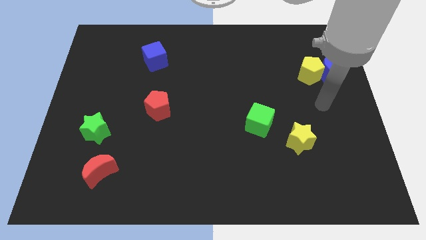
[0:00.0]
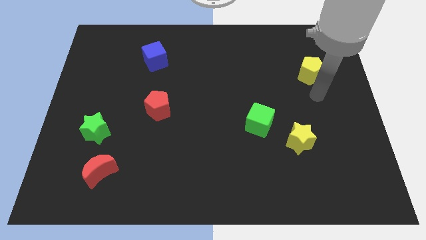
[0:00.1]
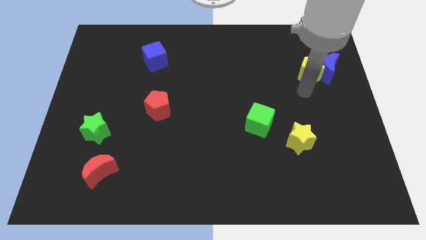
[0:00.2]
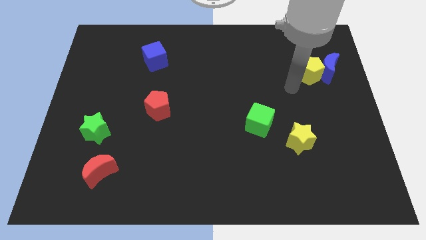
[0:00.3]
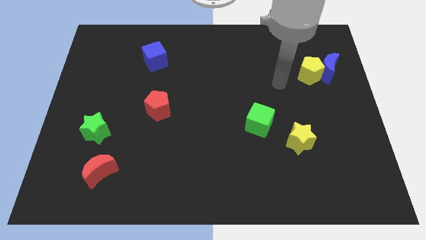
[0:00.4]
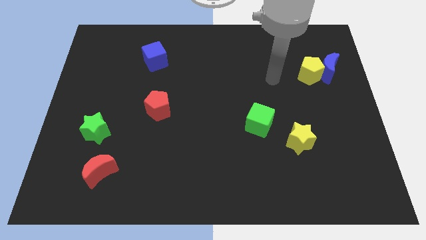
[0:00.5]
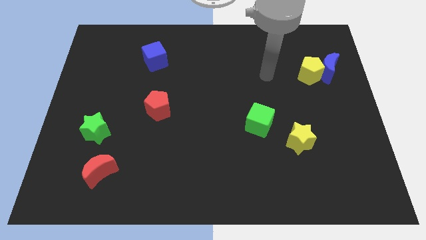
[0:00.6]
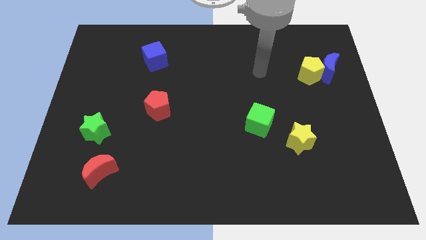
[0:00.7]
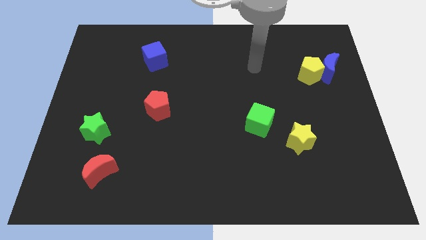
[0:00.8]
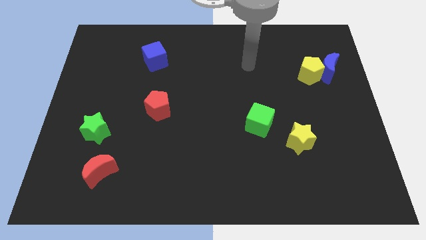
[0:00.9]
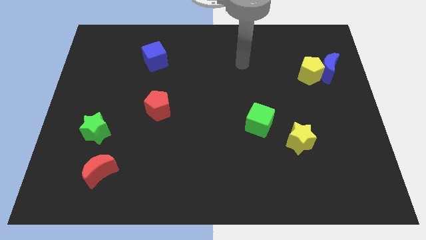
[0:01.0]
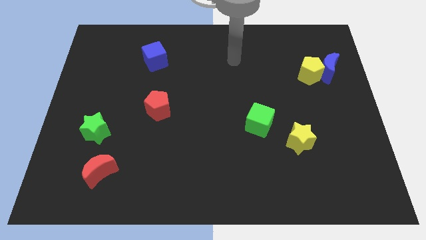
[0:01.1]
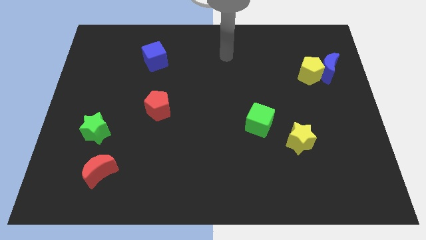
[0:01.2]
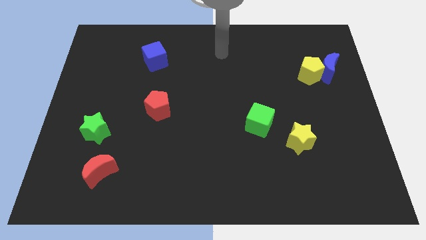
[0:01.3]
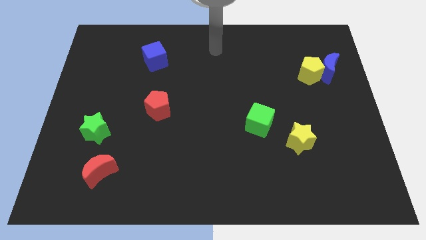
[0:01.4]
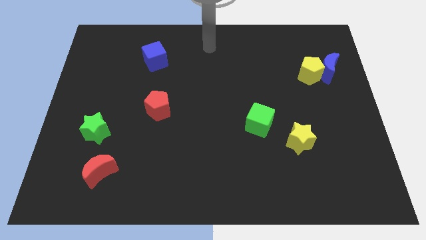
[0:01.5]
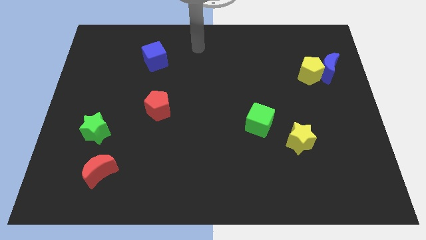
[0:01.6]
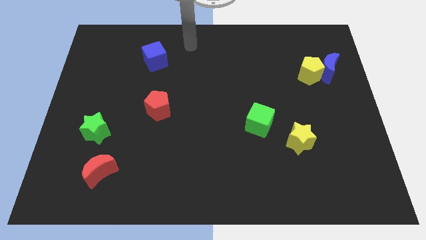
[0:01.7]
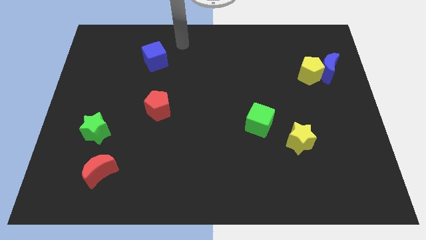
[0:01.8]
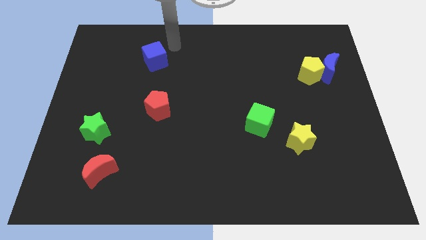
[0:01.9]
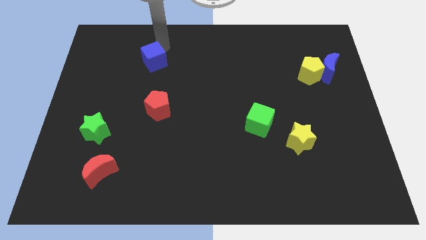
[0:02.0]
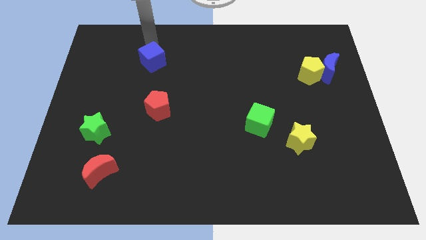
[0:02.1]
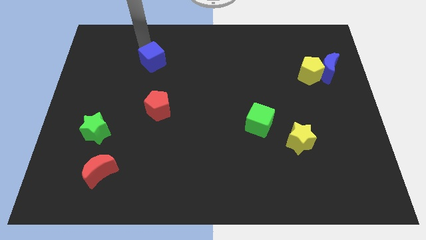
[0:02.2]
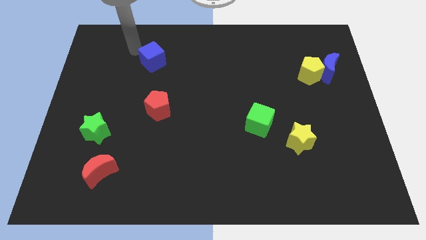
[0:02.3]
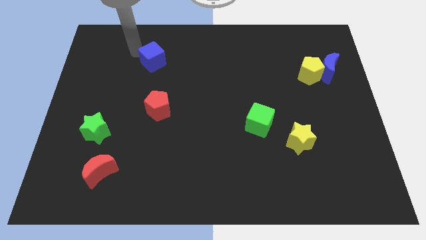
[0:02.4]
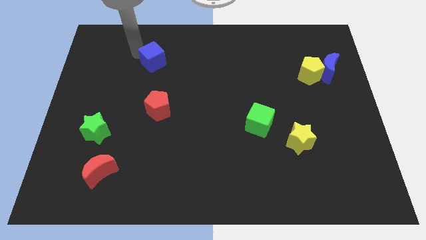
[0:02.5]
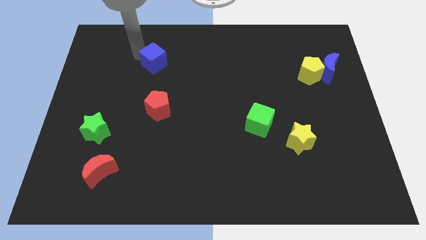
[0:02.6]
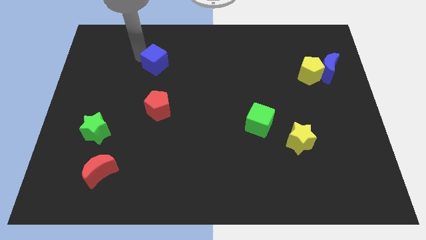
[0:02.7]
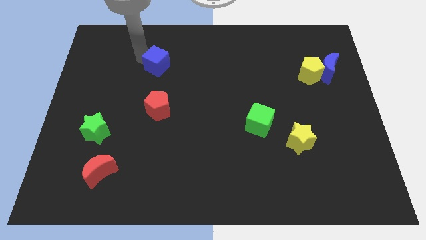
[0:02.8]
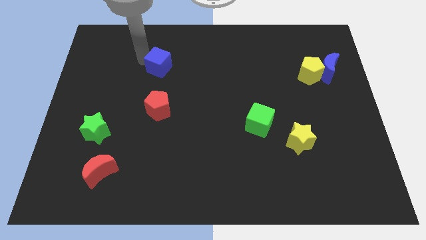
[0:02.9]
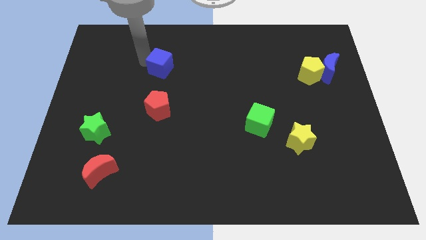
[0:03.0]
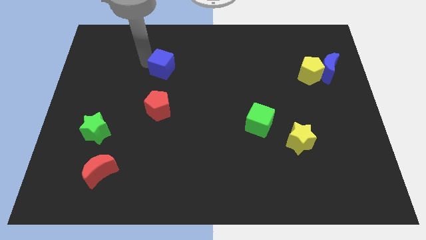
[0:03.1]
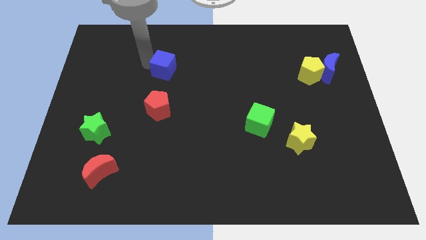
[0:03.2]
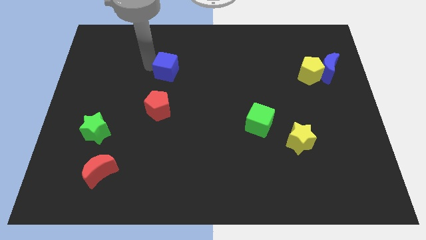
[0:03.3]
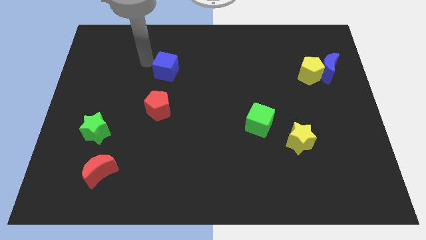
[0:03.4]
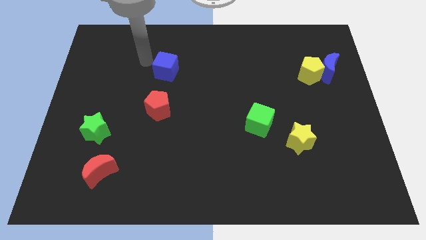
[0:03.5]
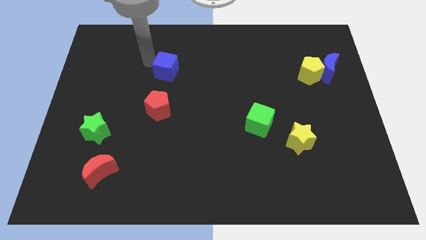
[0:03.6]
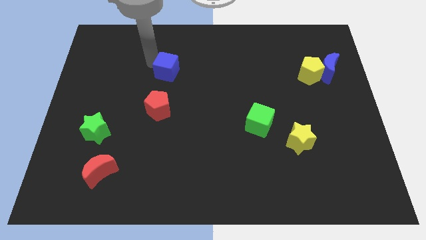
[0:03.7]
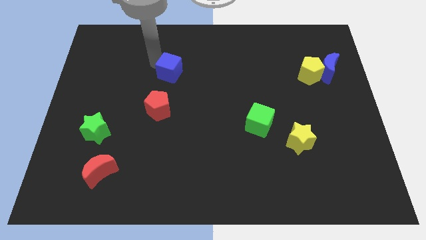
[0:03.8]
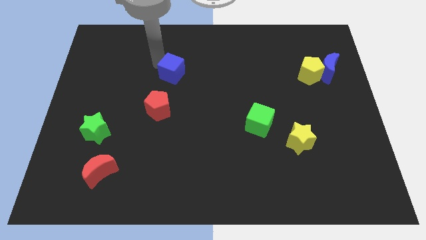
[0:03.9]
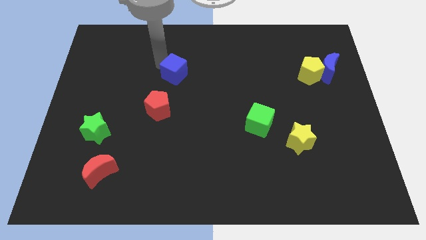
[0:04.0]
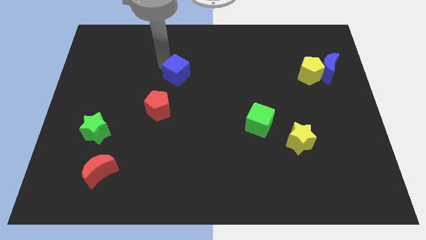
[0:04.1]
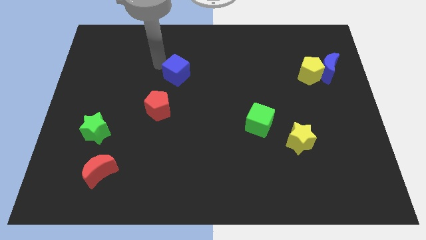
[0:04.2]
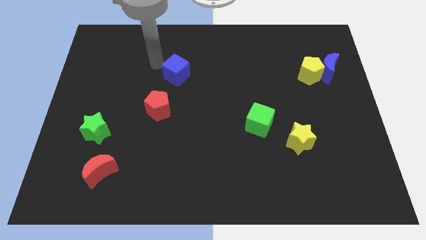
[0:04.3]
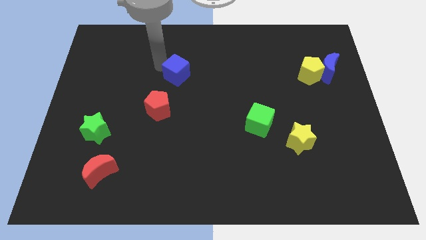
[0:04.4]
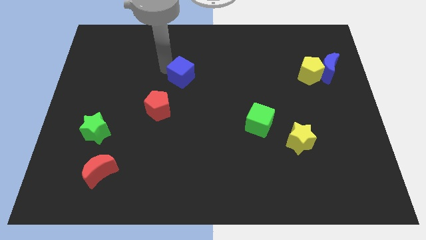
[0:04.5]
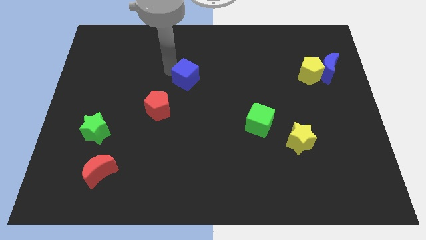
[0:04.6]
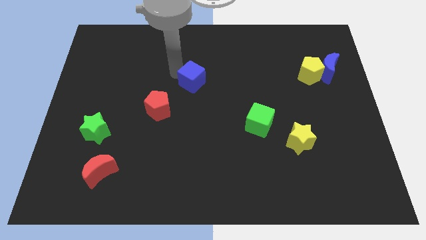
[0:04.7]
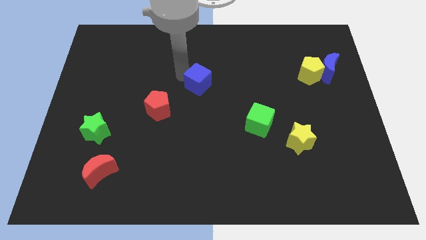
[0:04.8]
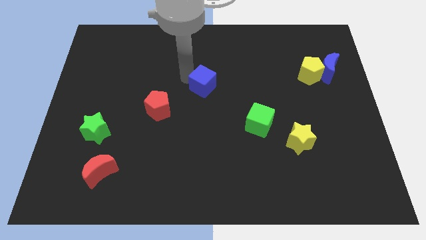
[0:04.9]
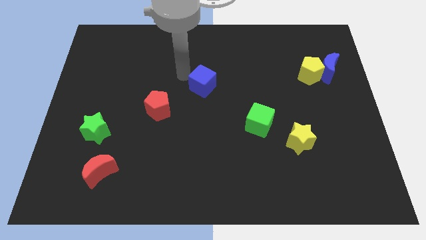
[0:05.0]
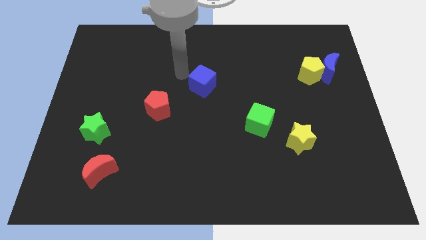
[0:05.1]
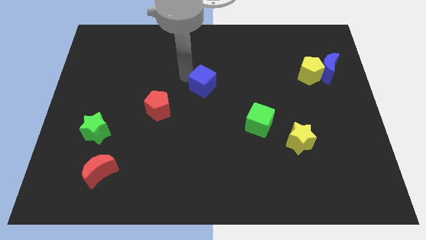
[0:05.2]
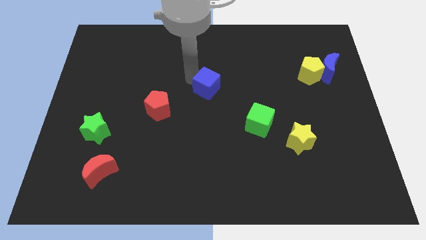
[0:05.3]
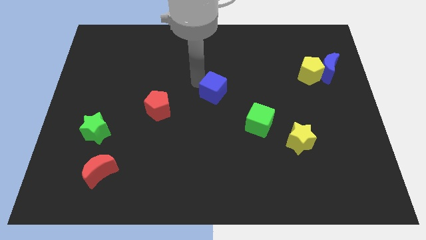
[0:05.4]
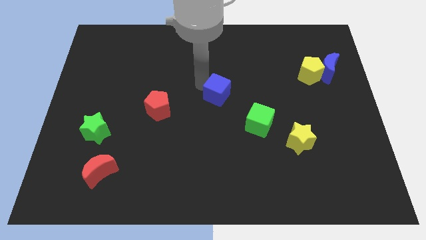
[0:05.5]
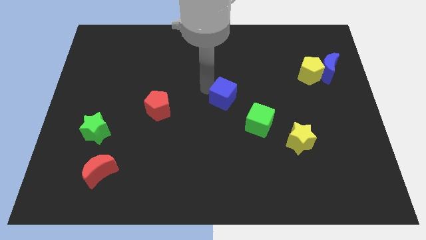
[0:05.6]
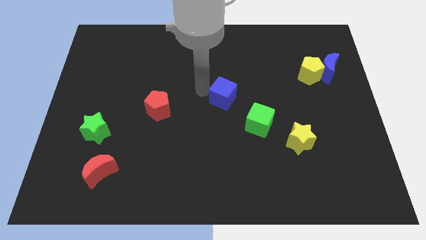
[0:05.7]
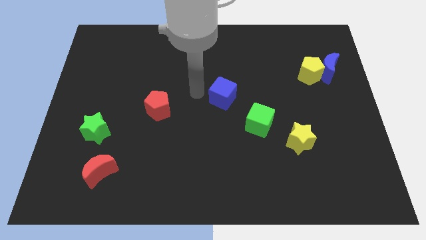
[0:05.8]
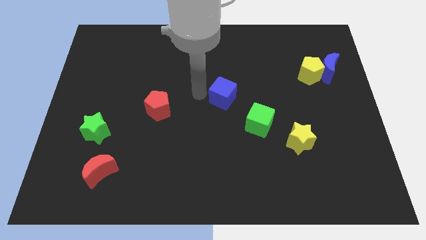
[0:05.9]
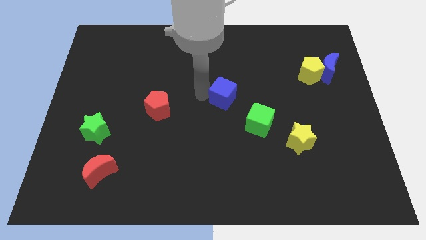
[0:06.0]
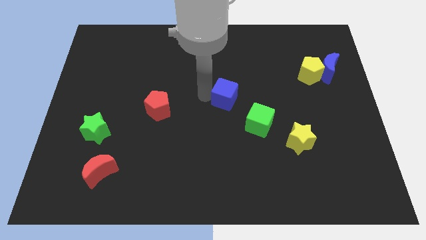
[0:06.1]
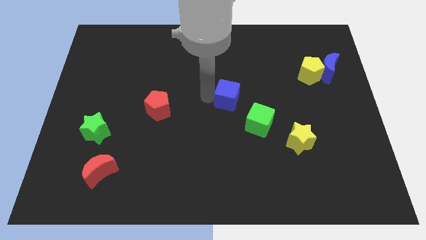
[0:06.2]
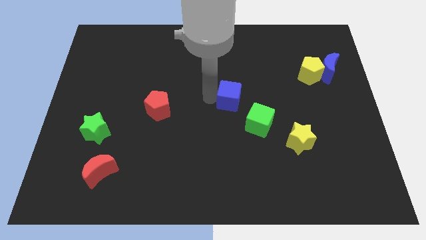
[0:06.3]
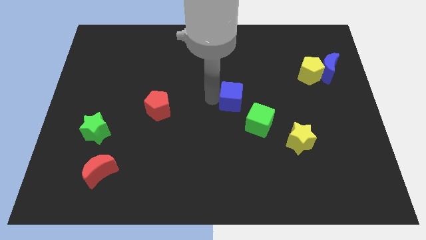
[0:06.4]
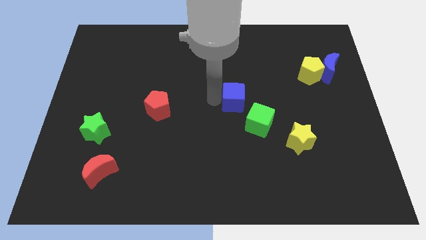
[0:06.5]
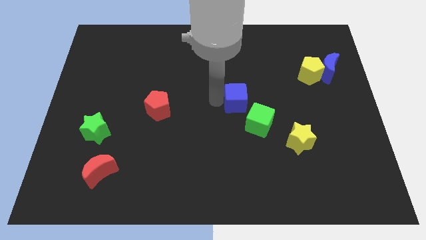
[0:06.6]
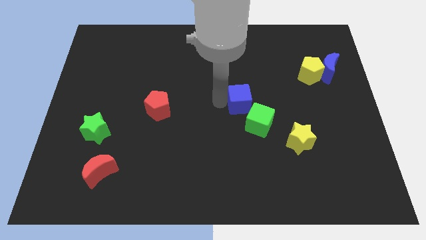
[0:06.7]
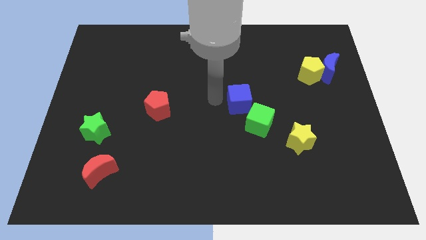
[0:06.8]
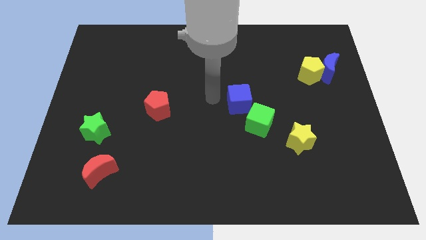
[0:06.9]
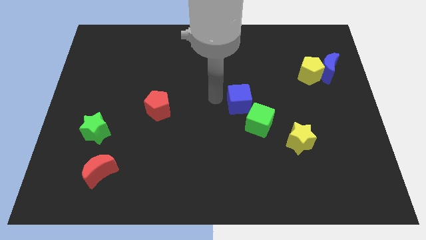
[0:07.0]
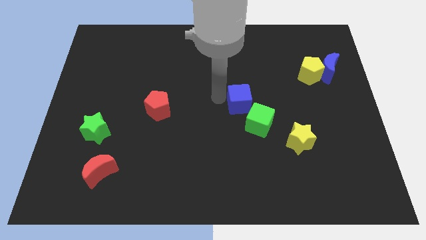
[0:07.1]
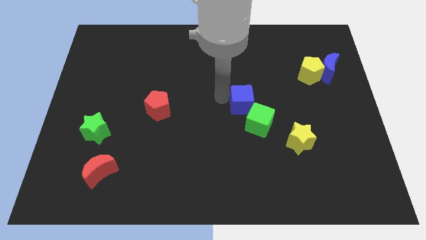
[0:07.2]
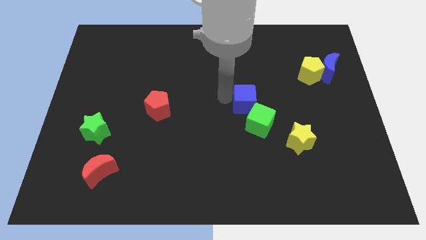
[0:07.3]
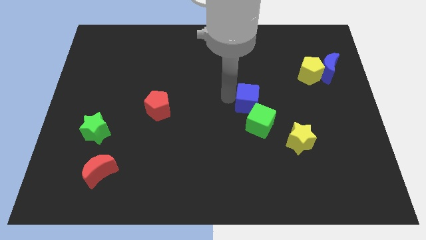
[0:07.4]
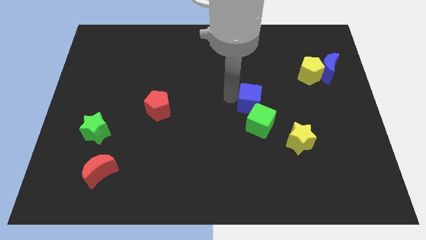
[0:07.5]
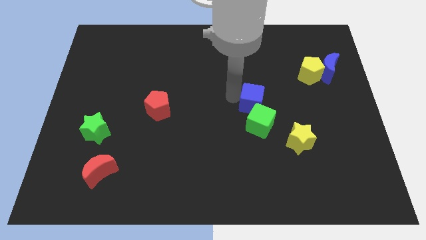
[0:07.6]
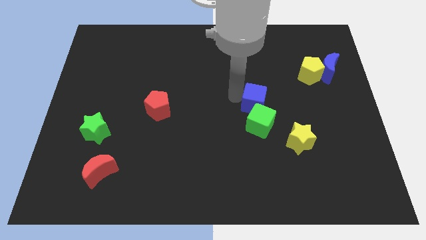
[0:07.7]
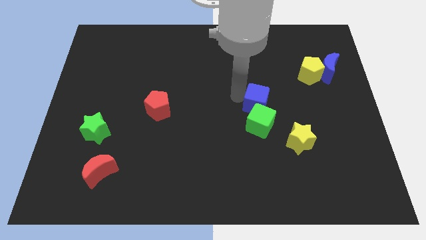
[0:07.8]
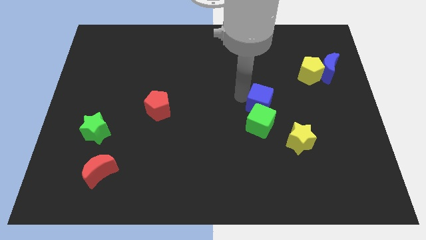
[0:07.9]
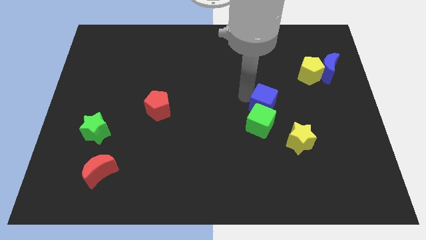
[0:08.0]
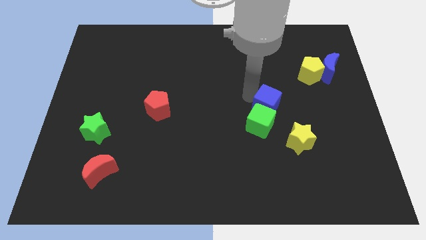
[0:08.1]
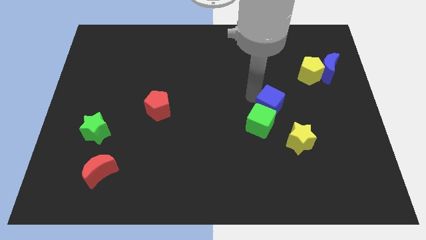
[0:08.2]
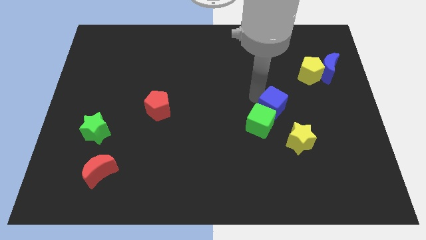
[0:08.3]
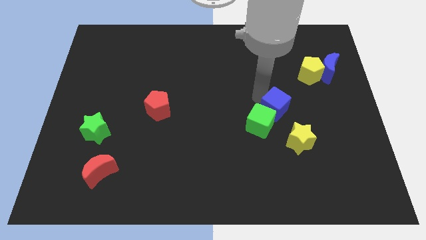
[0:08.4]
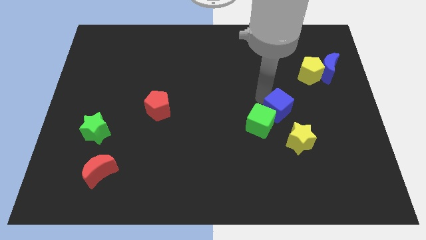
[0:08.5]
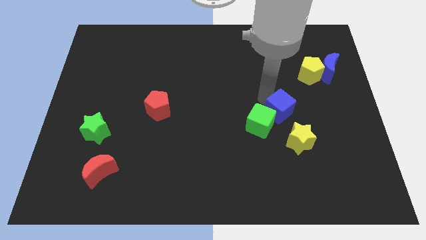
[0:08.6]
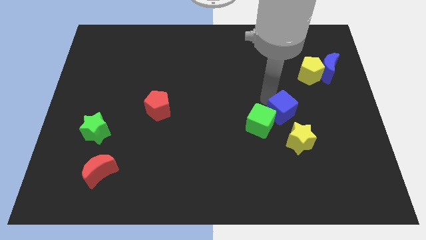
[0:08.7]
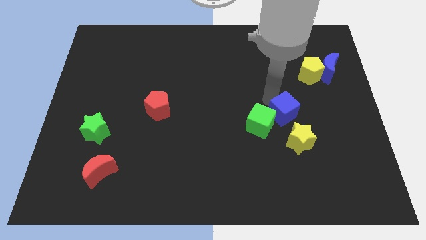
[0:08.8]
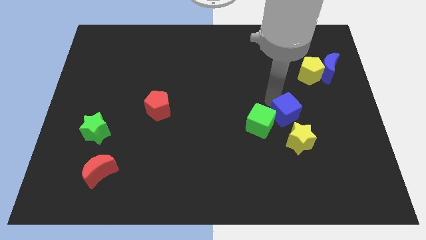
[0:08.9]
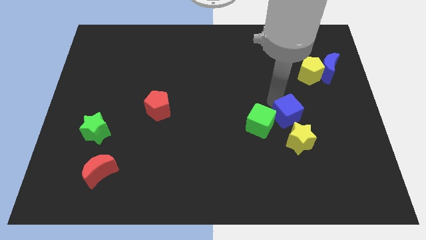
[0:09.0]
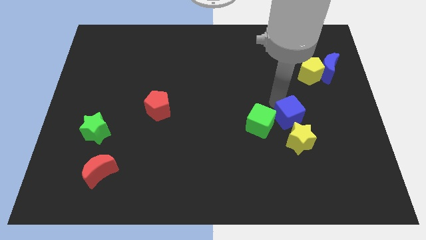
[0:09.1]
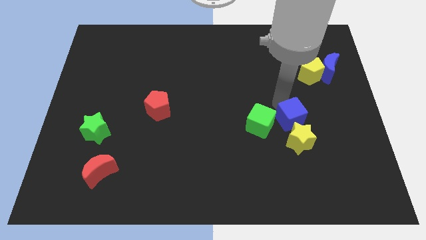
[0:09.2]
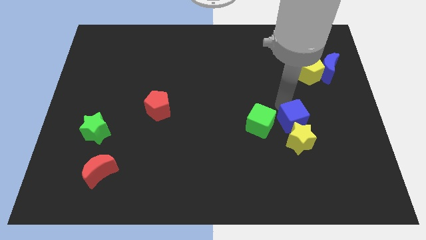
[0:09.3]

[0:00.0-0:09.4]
put the blue cube close to the yellow star
